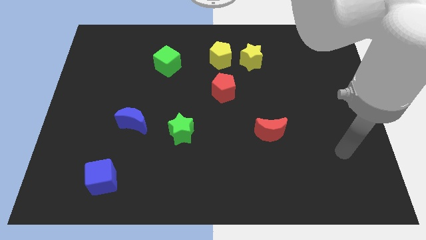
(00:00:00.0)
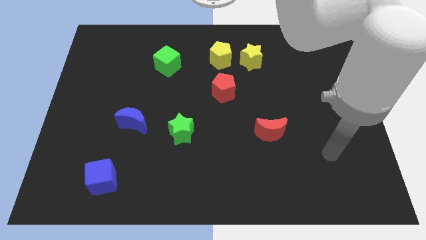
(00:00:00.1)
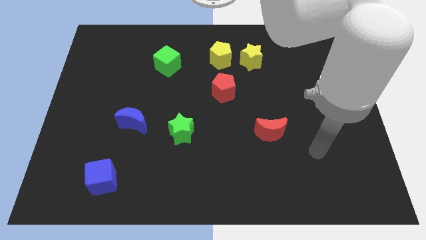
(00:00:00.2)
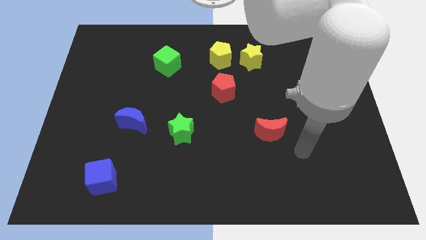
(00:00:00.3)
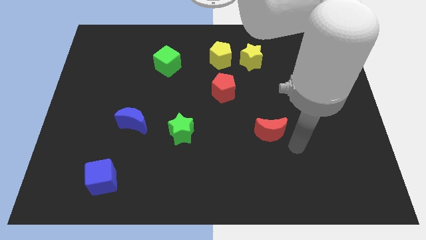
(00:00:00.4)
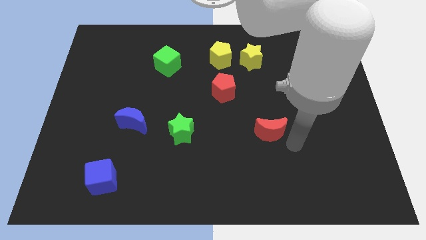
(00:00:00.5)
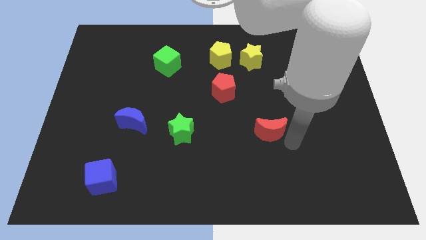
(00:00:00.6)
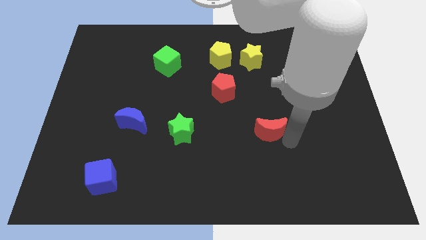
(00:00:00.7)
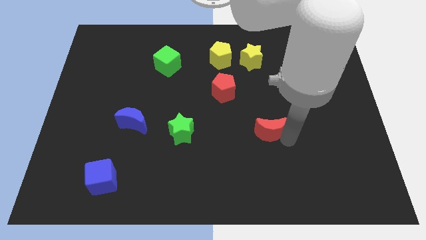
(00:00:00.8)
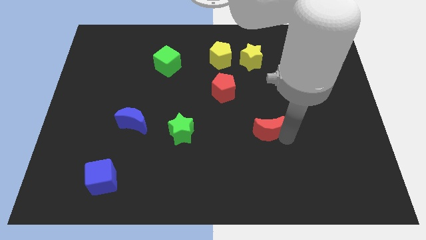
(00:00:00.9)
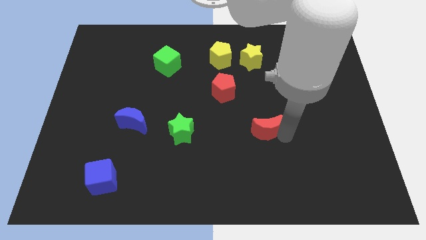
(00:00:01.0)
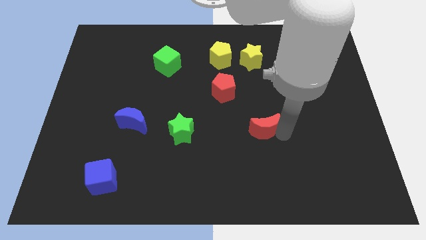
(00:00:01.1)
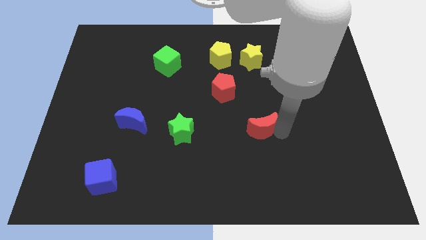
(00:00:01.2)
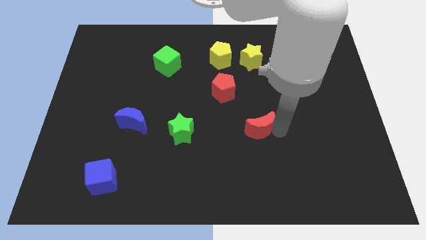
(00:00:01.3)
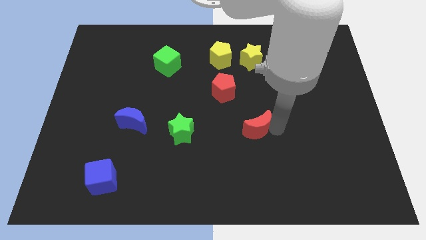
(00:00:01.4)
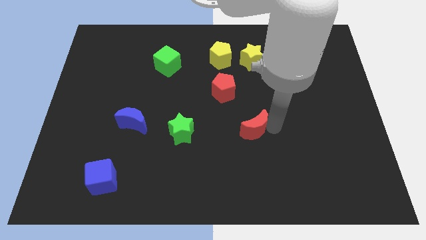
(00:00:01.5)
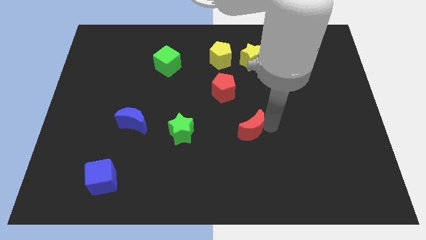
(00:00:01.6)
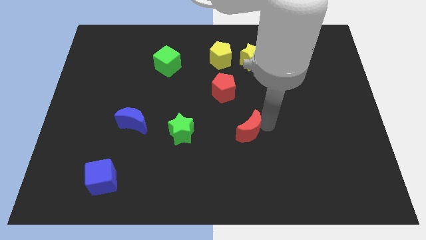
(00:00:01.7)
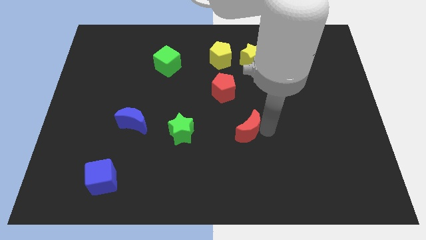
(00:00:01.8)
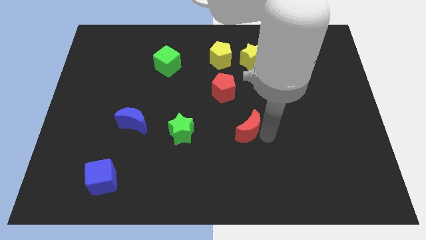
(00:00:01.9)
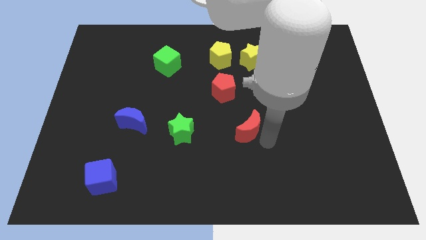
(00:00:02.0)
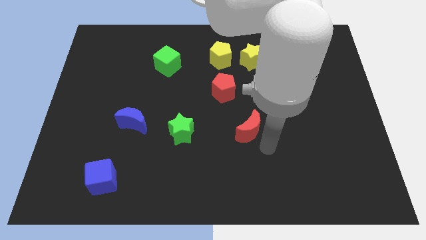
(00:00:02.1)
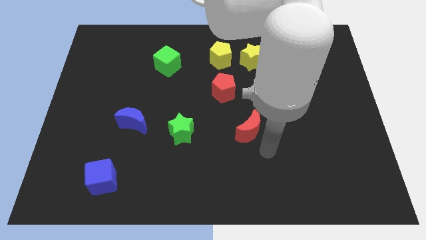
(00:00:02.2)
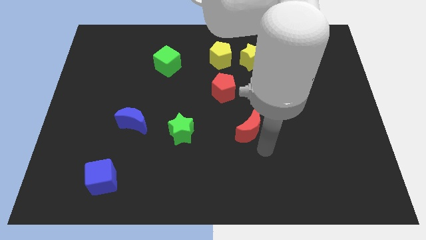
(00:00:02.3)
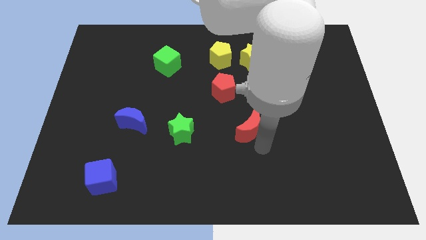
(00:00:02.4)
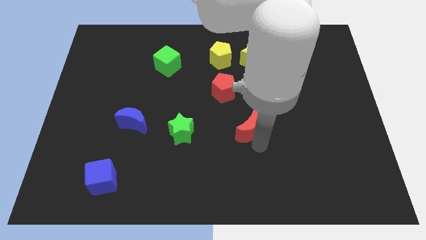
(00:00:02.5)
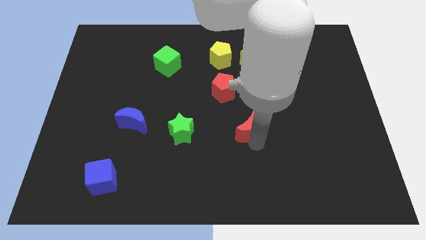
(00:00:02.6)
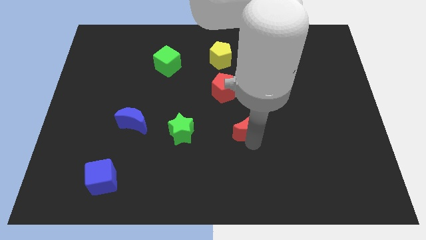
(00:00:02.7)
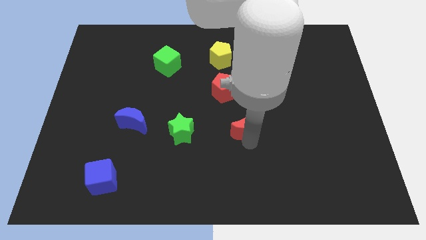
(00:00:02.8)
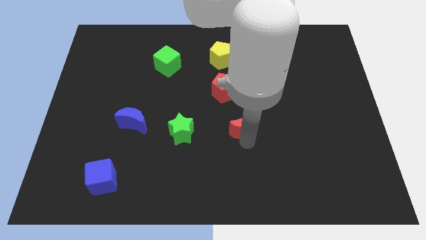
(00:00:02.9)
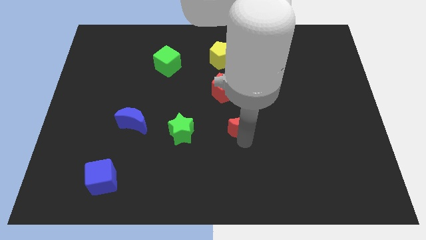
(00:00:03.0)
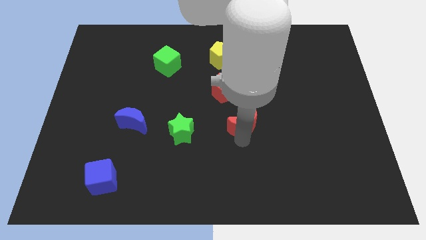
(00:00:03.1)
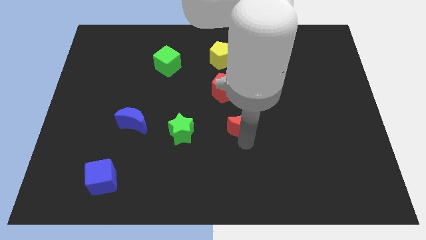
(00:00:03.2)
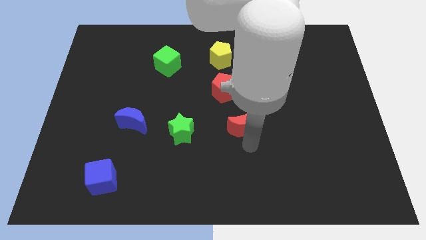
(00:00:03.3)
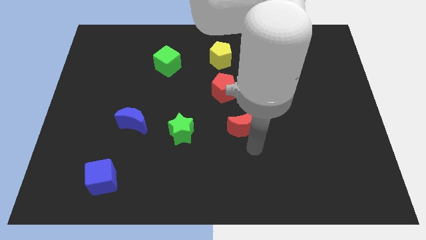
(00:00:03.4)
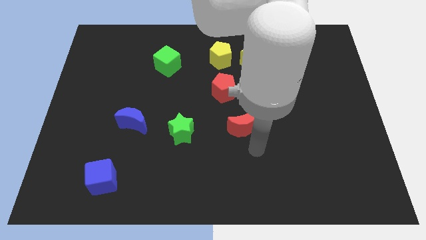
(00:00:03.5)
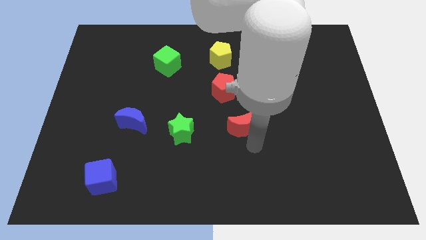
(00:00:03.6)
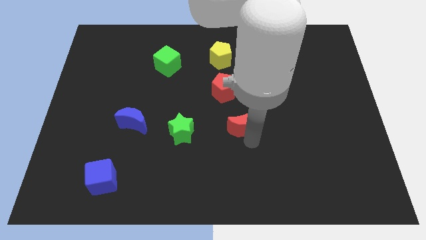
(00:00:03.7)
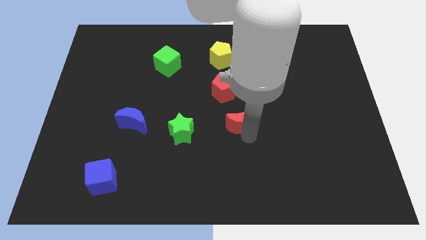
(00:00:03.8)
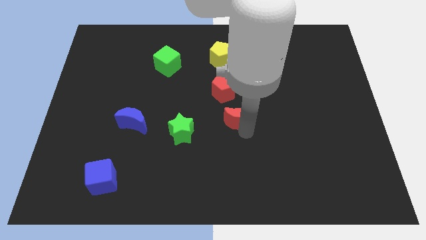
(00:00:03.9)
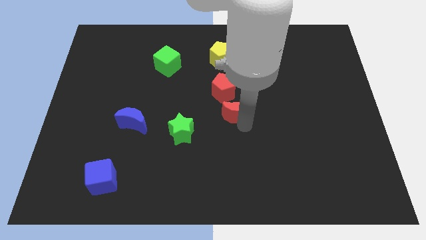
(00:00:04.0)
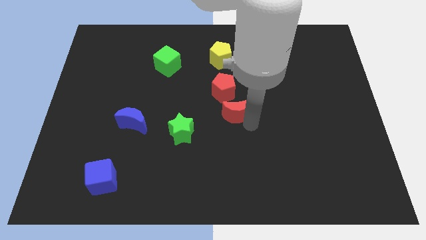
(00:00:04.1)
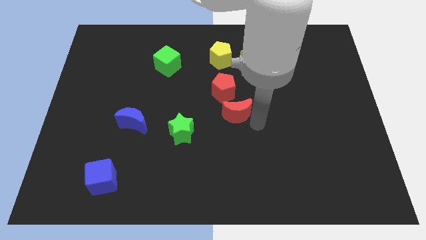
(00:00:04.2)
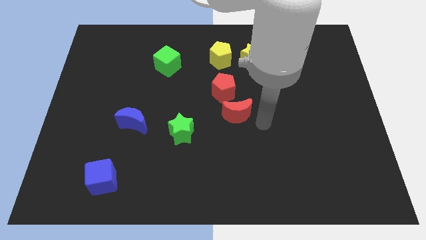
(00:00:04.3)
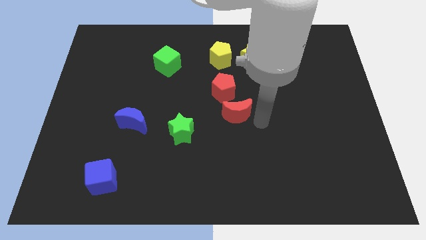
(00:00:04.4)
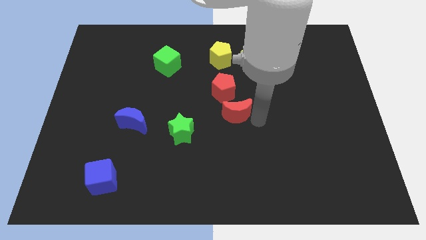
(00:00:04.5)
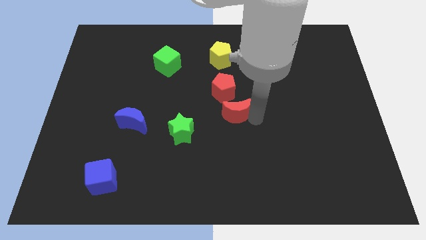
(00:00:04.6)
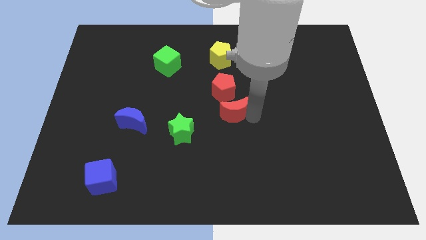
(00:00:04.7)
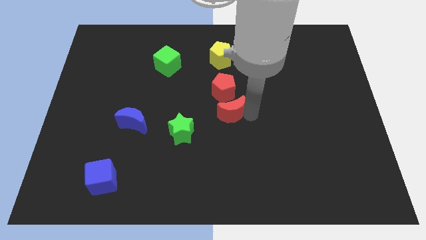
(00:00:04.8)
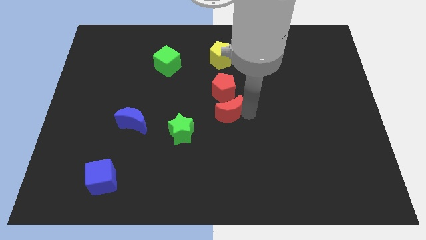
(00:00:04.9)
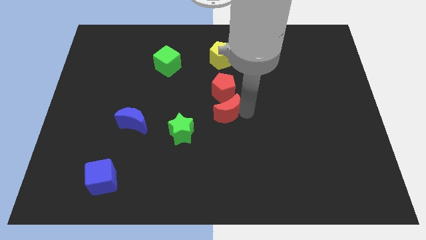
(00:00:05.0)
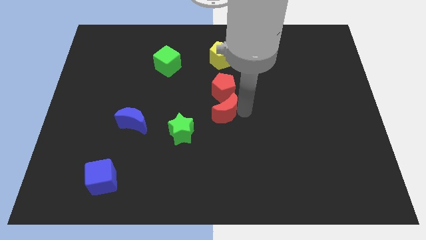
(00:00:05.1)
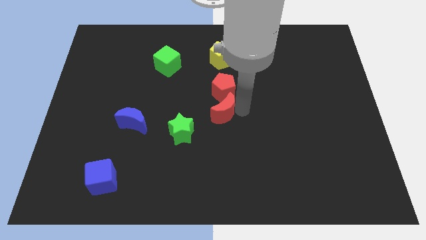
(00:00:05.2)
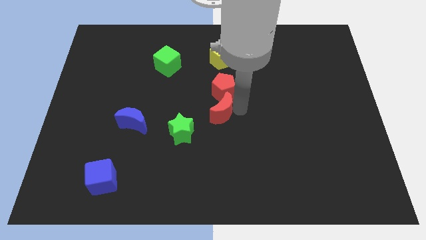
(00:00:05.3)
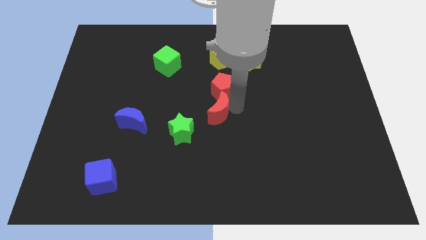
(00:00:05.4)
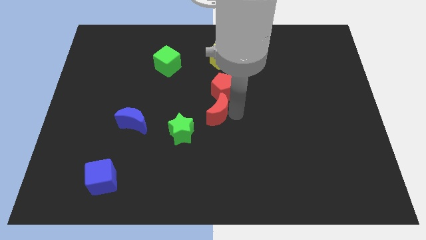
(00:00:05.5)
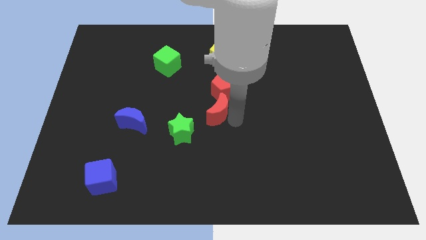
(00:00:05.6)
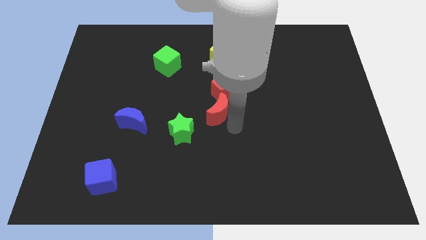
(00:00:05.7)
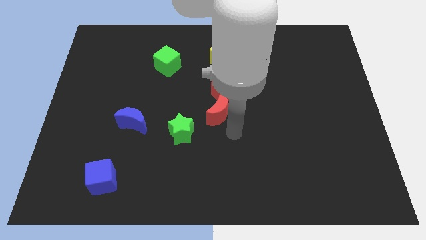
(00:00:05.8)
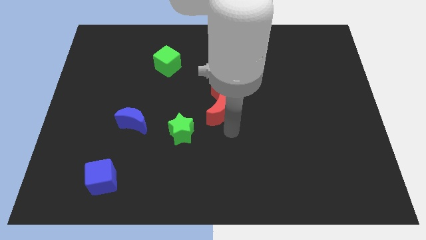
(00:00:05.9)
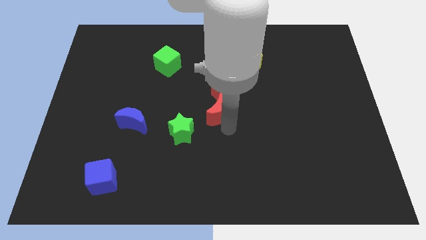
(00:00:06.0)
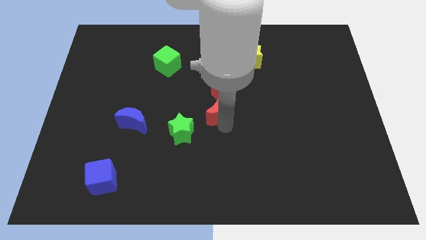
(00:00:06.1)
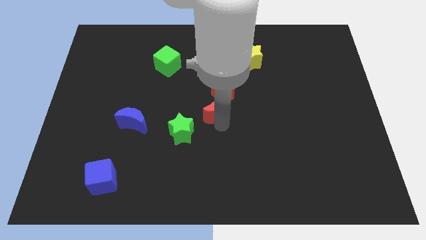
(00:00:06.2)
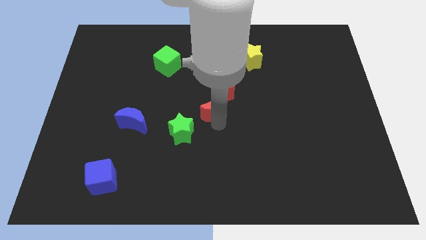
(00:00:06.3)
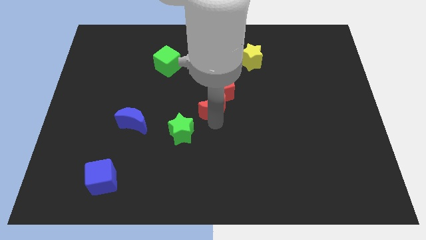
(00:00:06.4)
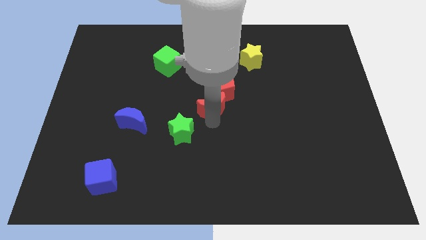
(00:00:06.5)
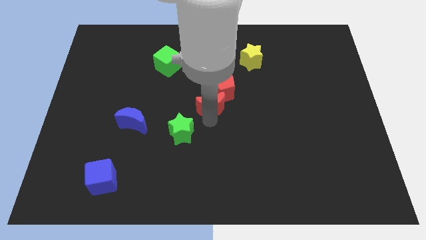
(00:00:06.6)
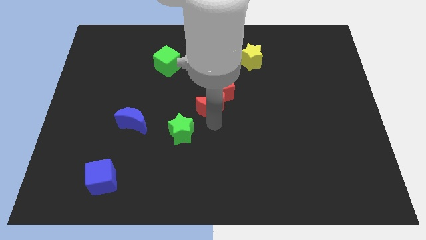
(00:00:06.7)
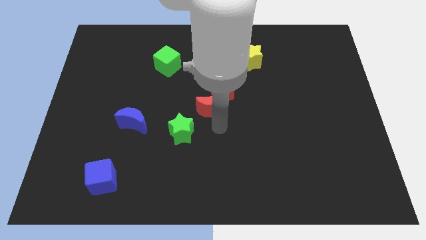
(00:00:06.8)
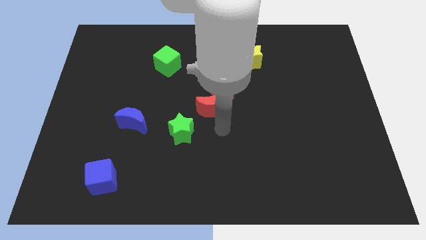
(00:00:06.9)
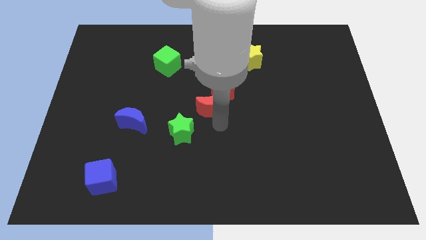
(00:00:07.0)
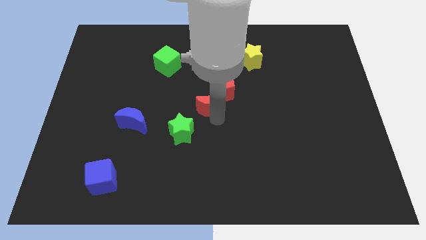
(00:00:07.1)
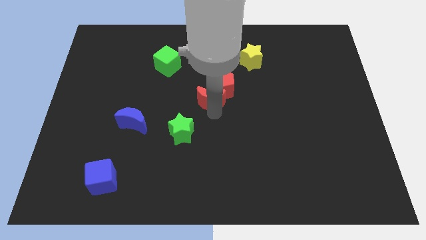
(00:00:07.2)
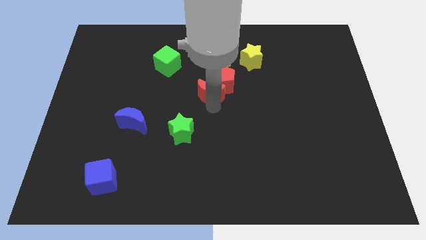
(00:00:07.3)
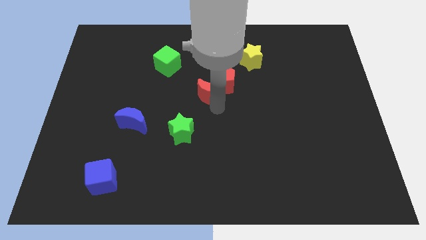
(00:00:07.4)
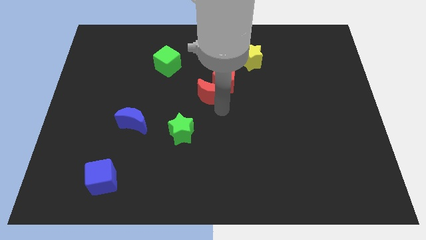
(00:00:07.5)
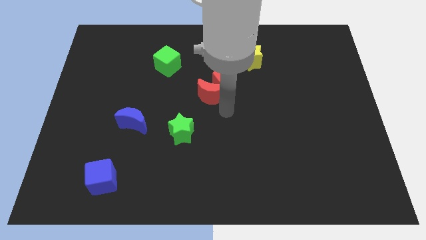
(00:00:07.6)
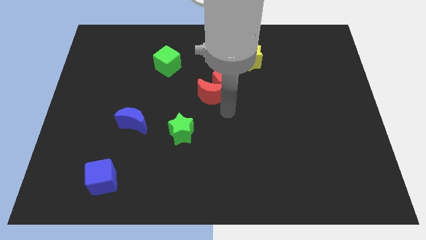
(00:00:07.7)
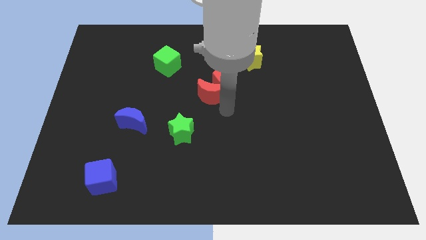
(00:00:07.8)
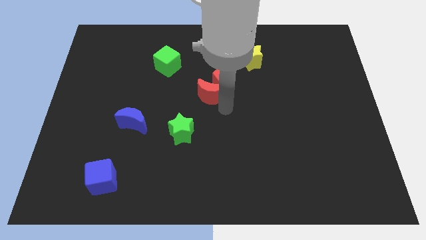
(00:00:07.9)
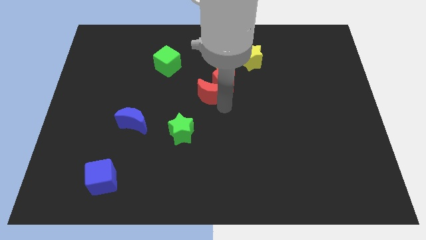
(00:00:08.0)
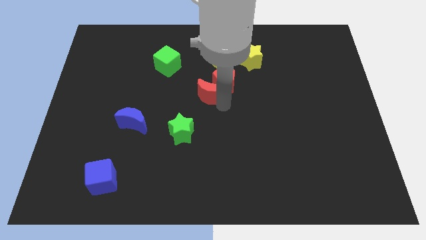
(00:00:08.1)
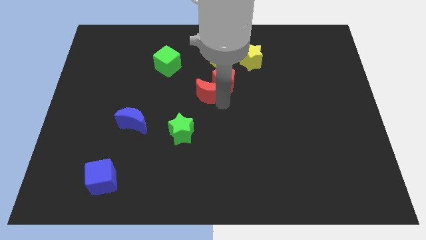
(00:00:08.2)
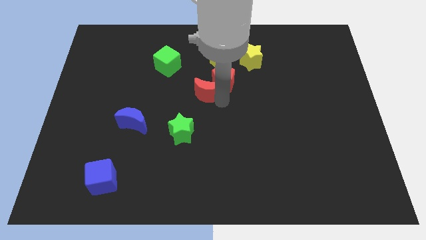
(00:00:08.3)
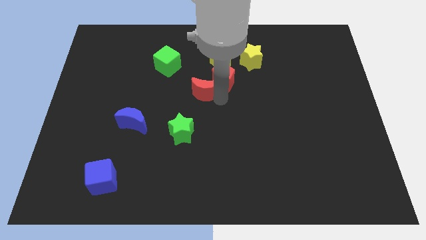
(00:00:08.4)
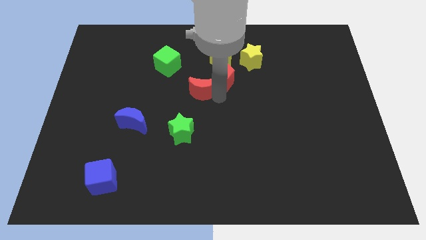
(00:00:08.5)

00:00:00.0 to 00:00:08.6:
move the red moon diagonally down and to the right of the green cube
